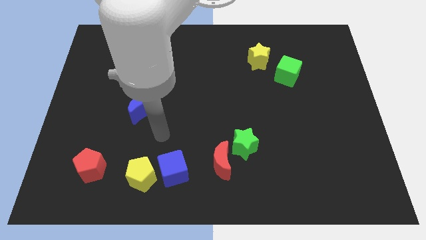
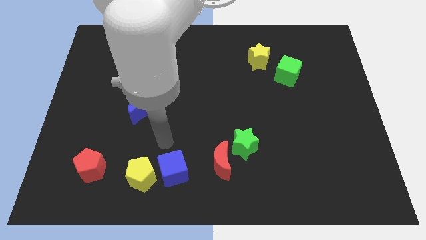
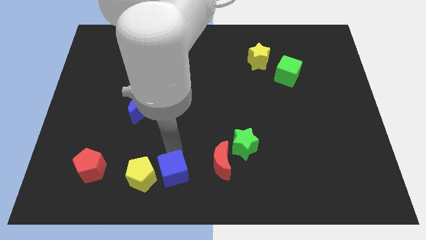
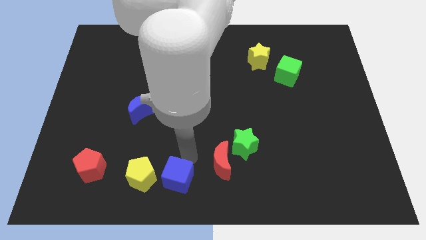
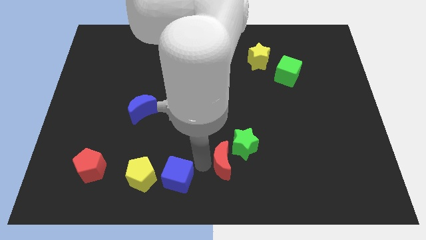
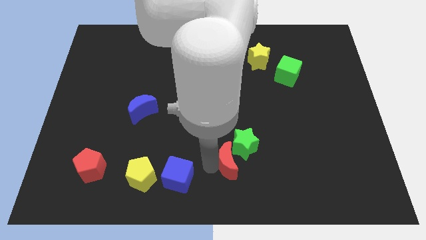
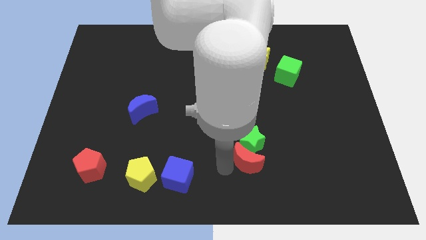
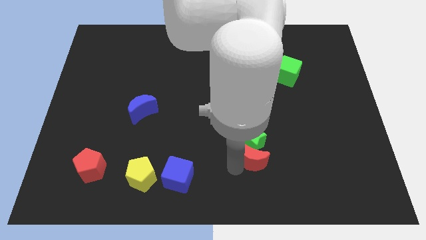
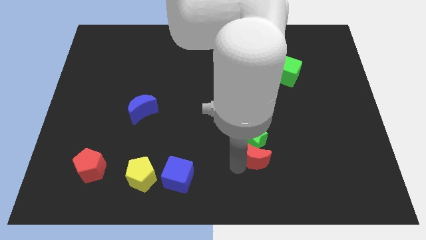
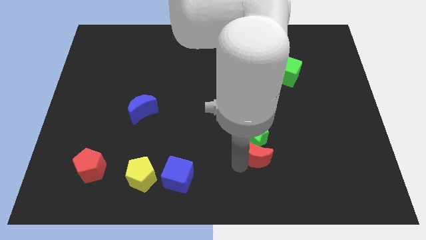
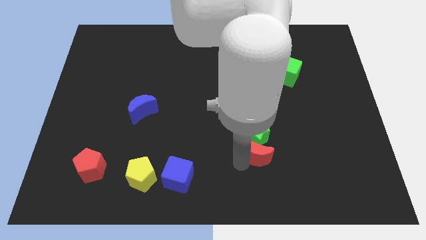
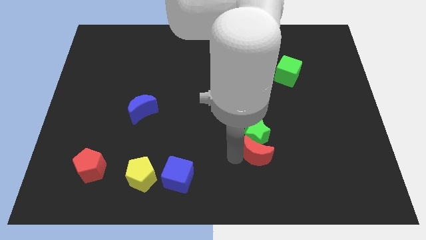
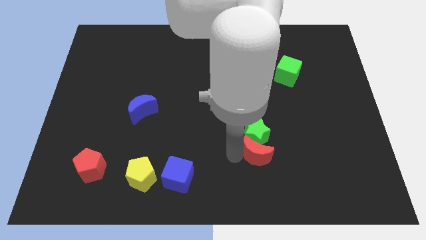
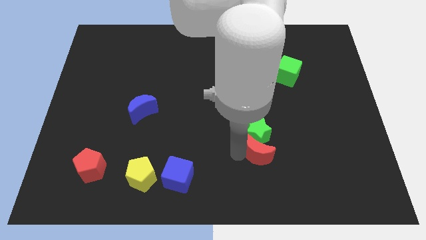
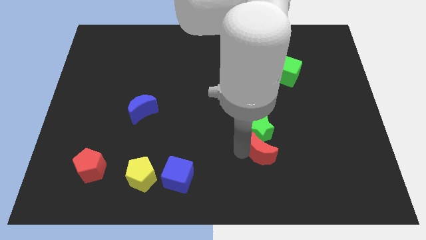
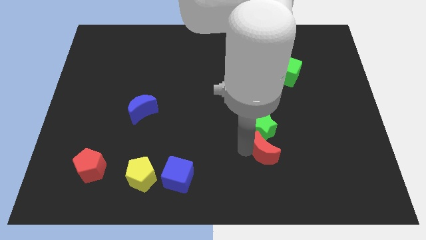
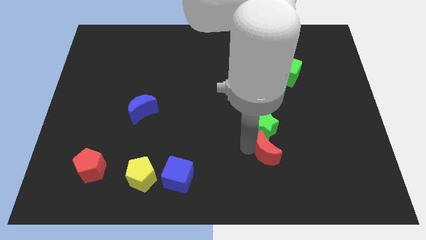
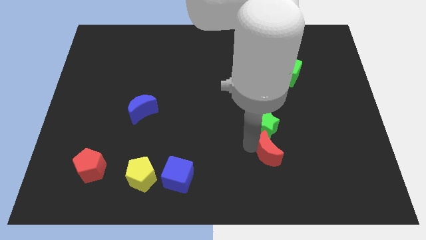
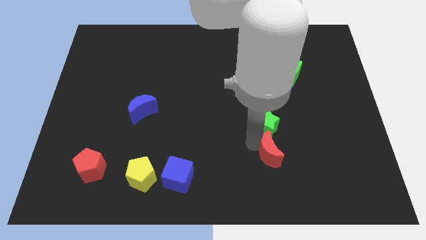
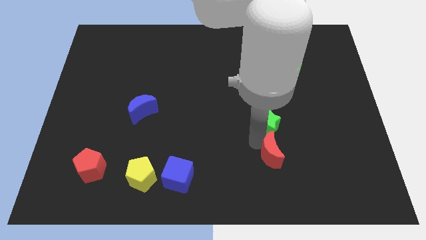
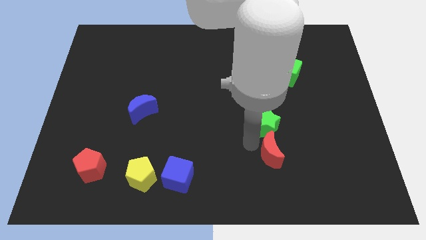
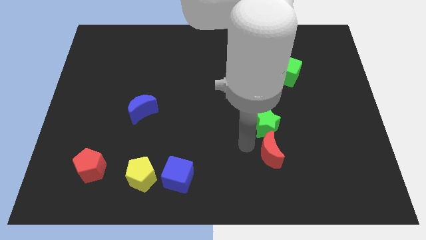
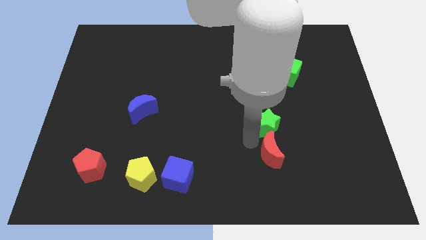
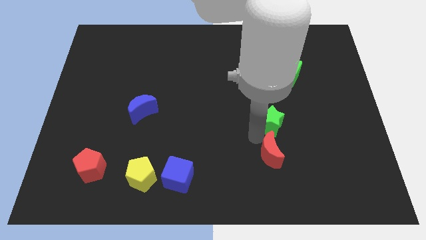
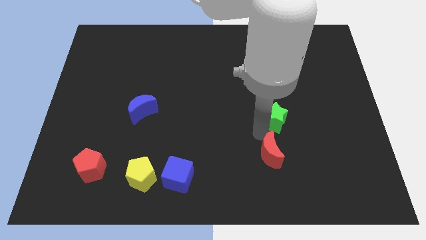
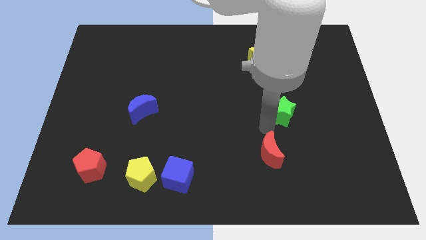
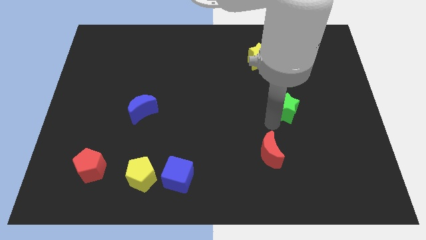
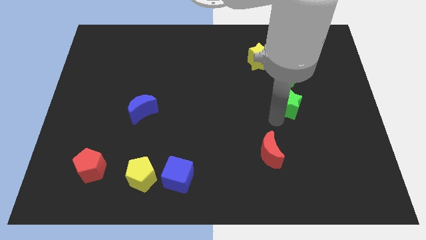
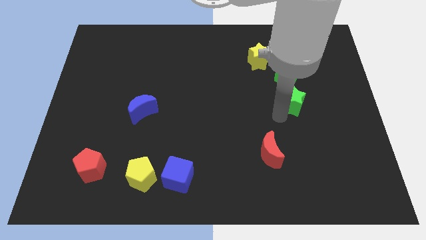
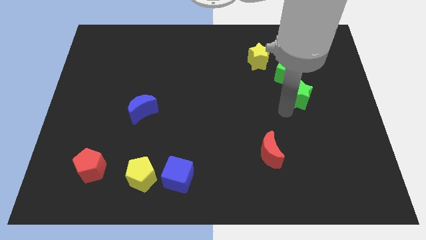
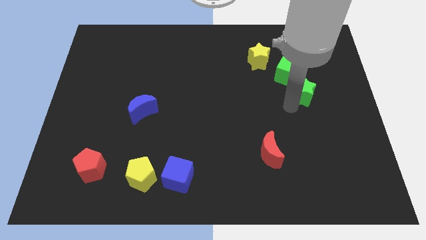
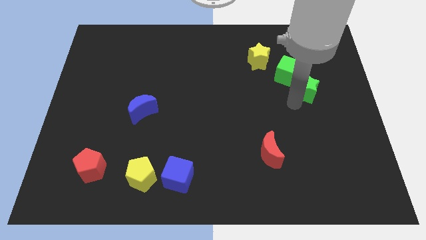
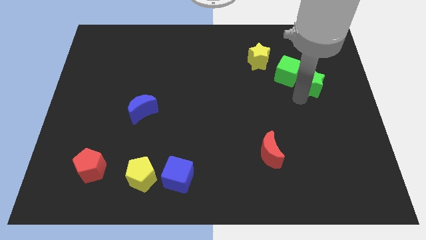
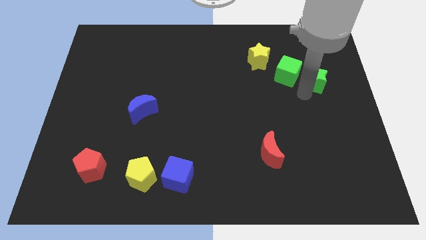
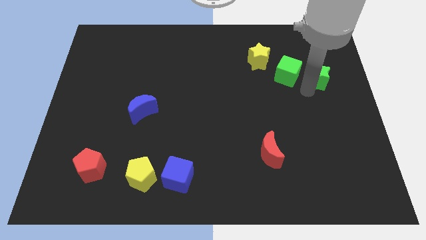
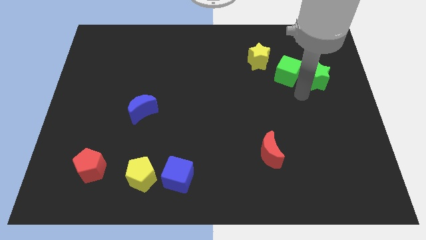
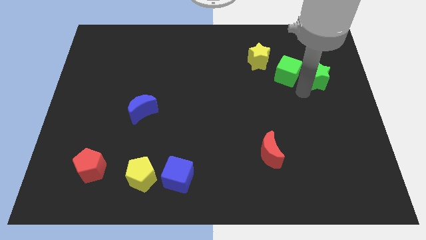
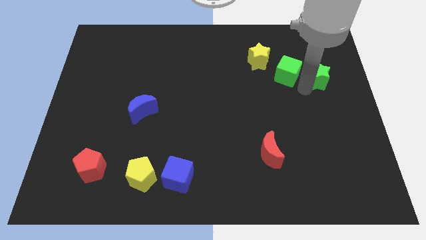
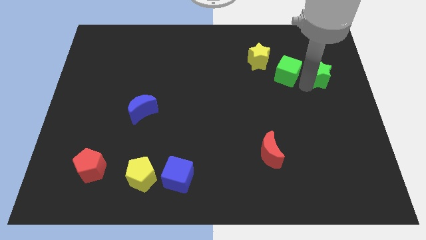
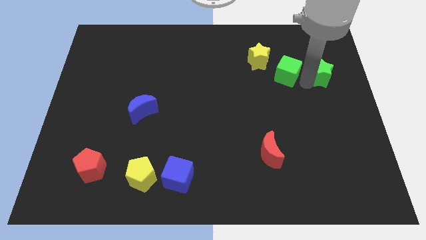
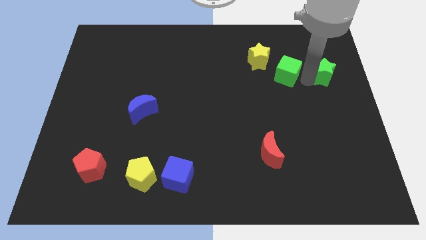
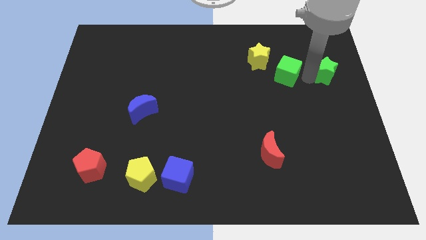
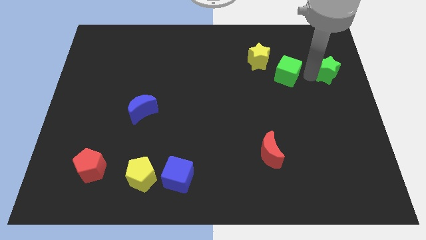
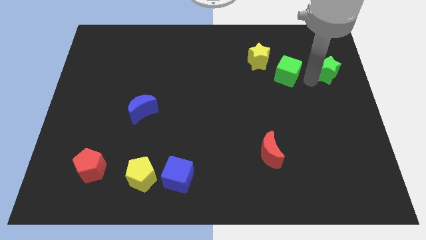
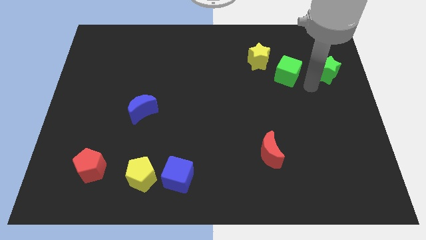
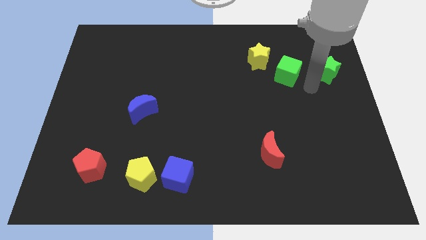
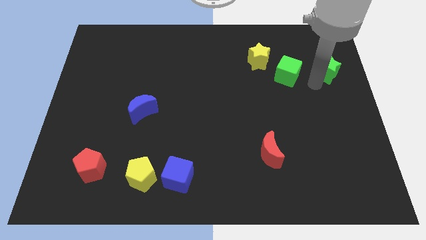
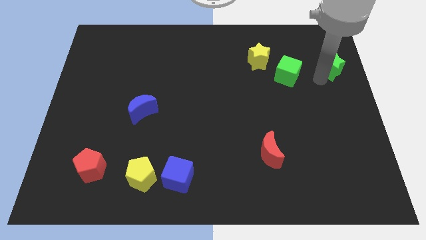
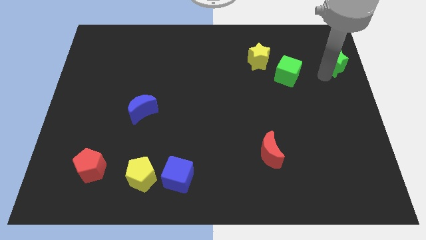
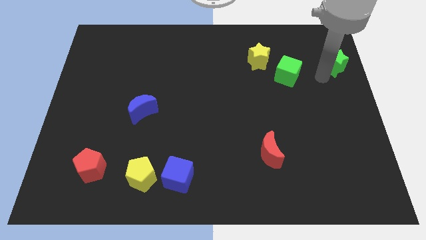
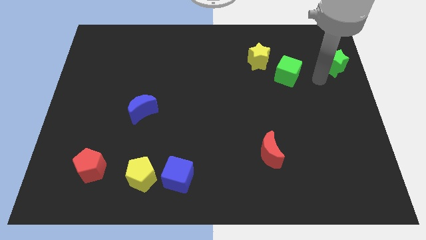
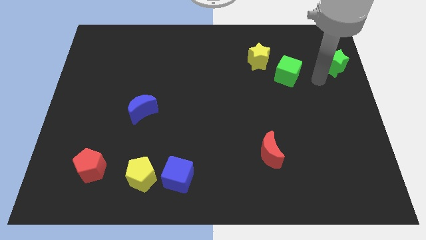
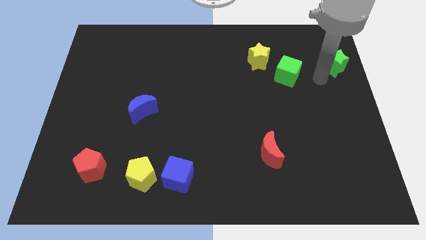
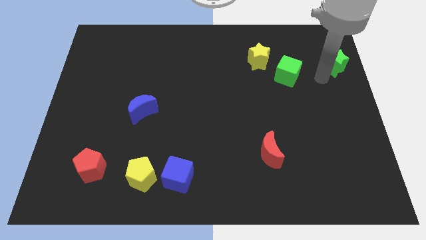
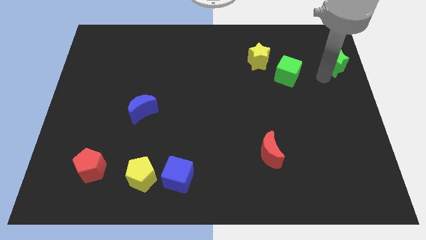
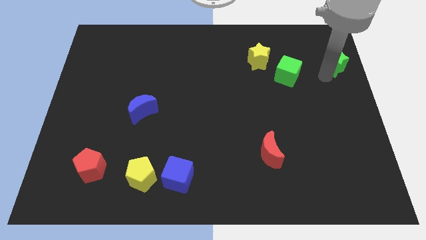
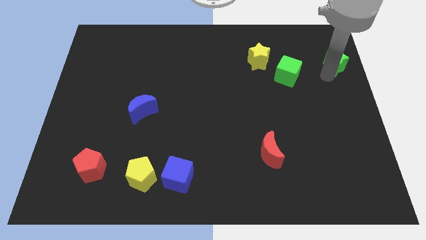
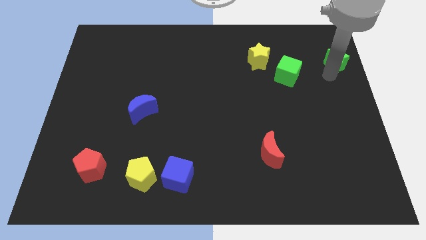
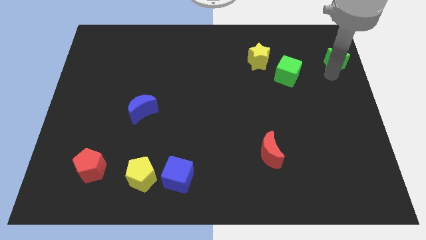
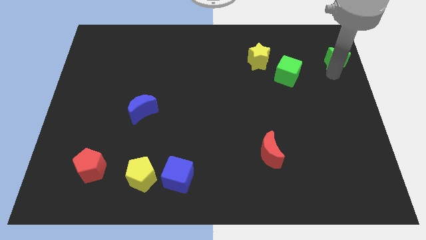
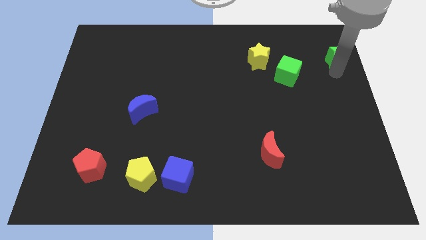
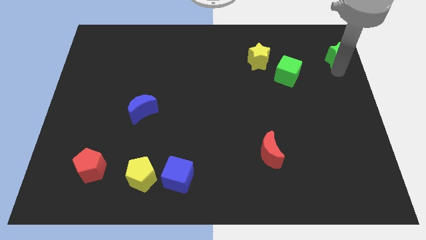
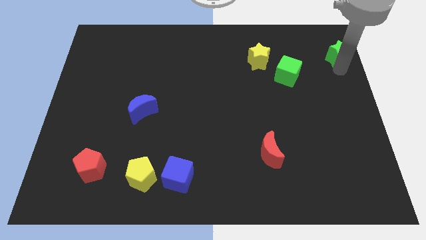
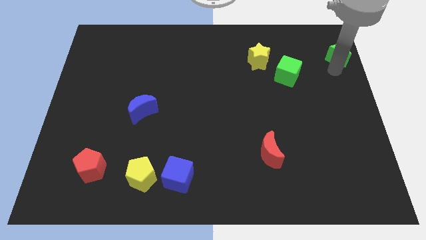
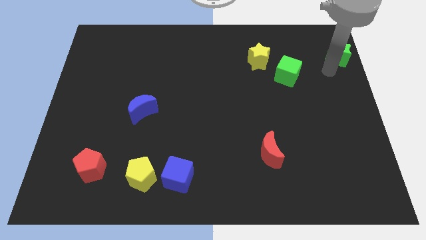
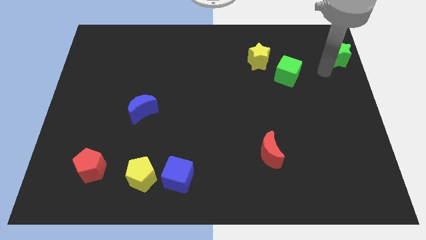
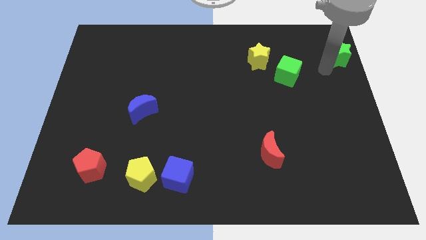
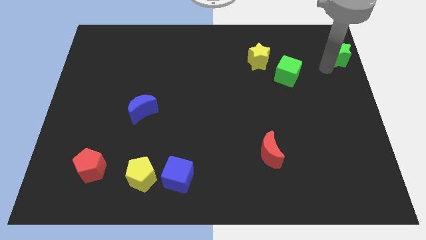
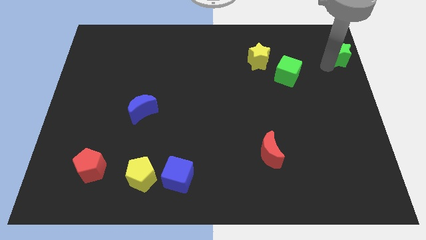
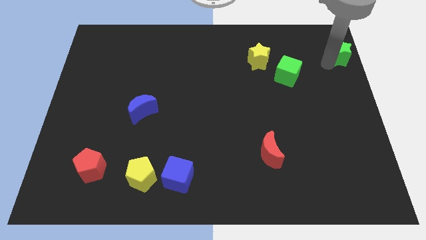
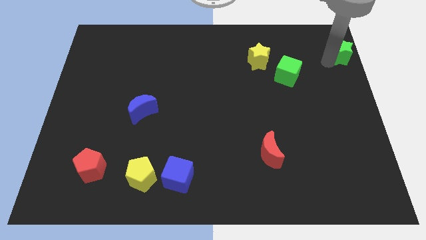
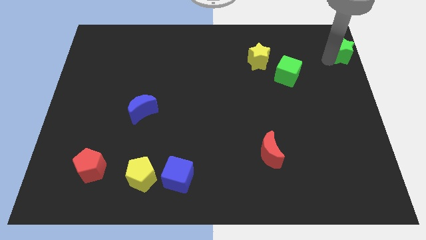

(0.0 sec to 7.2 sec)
push the green star to the top right corner
